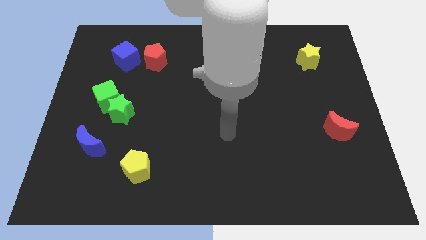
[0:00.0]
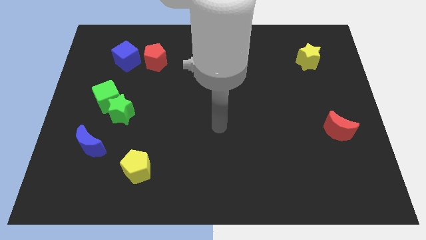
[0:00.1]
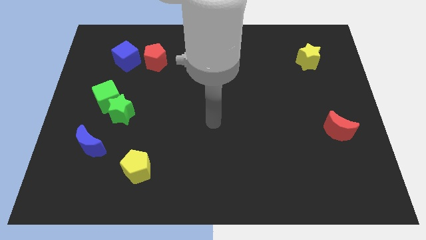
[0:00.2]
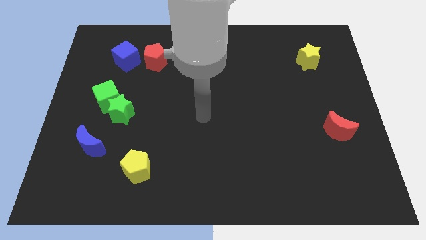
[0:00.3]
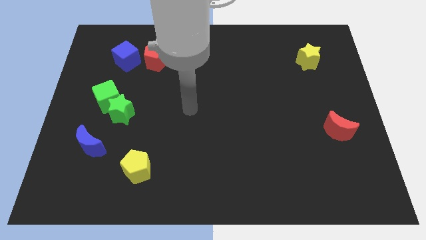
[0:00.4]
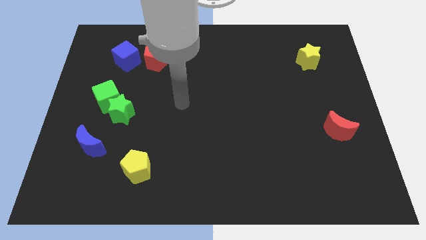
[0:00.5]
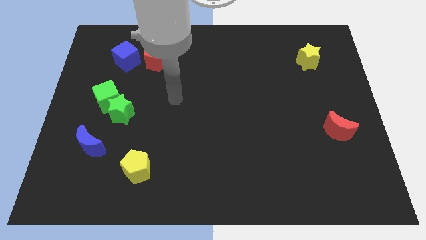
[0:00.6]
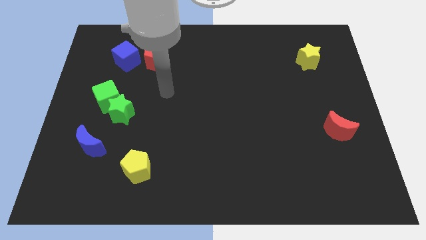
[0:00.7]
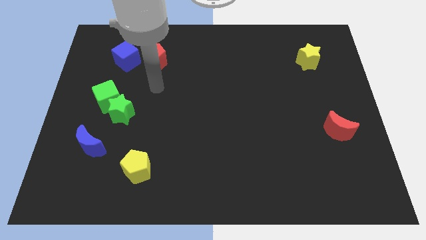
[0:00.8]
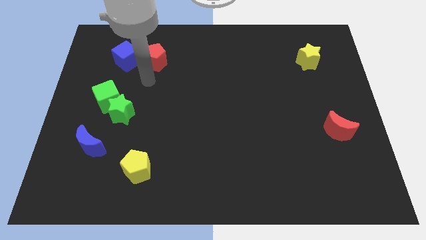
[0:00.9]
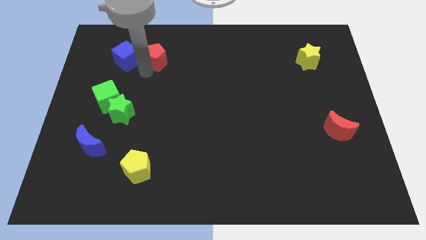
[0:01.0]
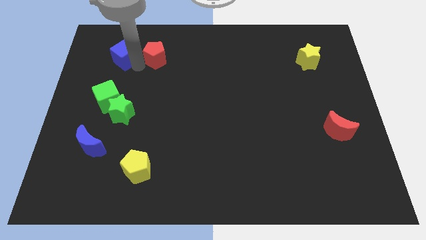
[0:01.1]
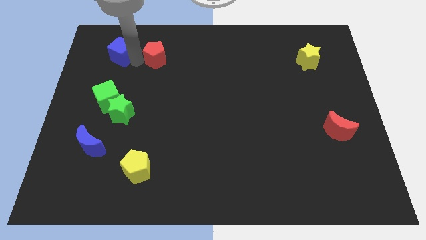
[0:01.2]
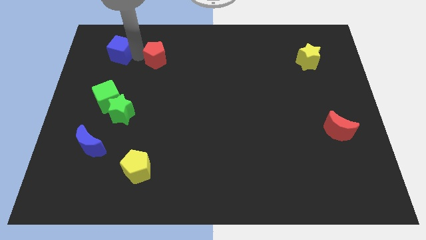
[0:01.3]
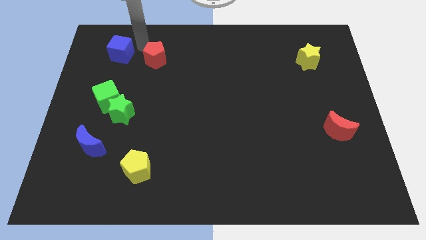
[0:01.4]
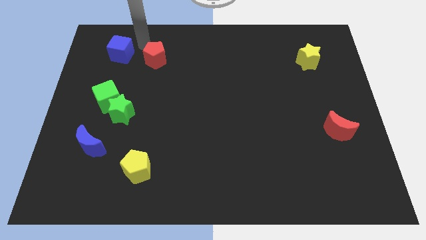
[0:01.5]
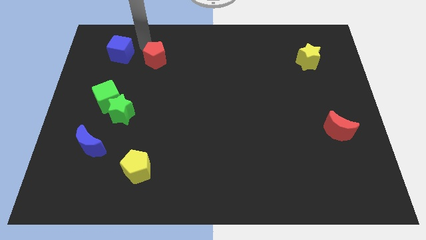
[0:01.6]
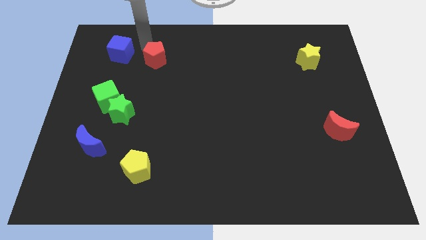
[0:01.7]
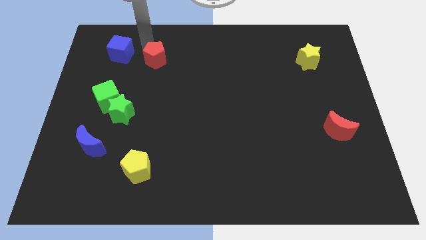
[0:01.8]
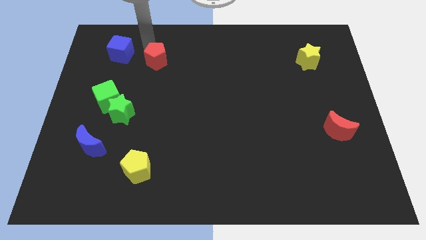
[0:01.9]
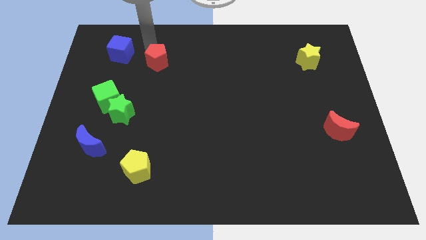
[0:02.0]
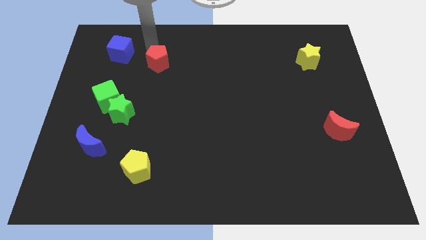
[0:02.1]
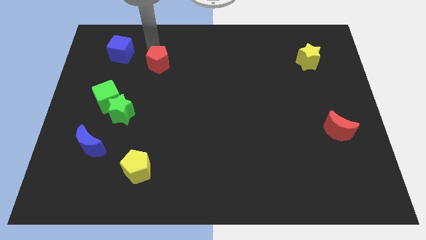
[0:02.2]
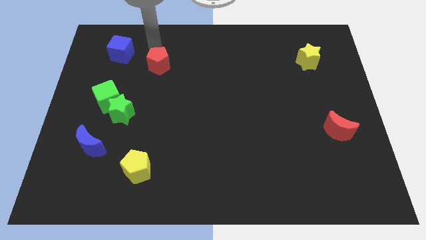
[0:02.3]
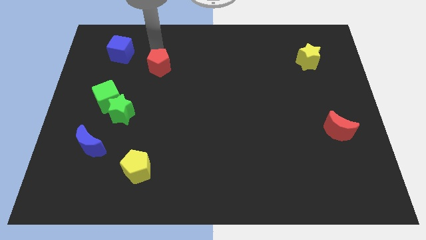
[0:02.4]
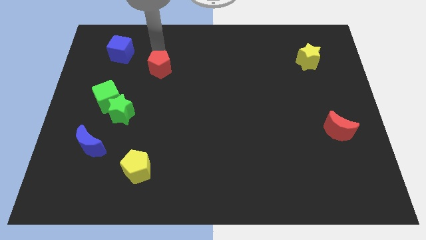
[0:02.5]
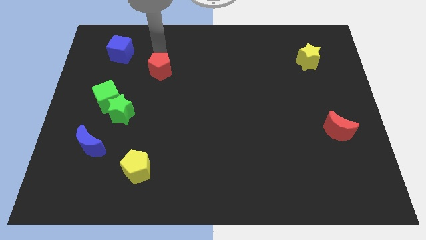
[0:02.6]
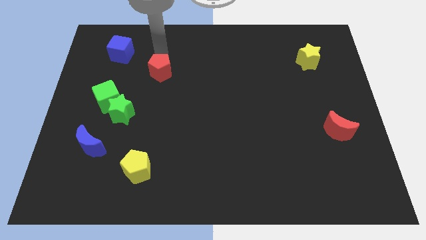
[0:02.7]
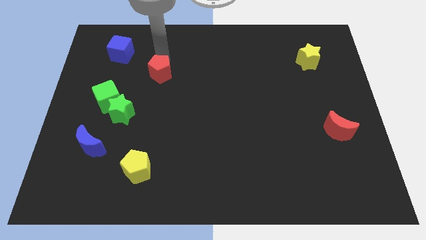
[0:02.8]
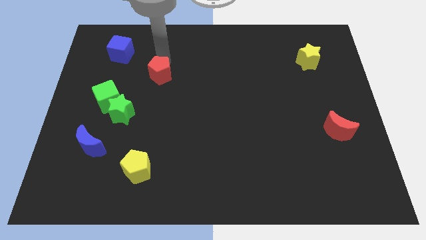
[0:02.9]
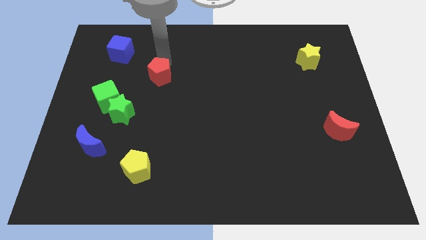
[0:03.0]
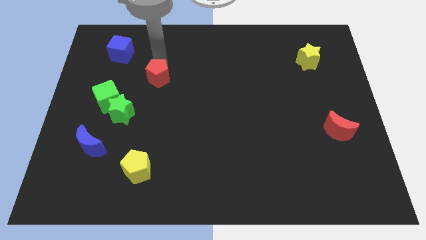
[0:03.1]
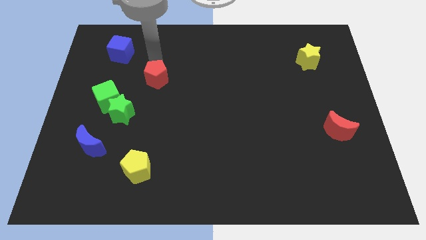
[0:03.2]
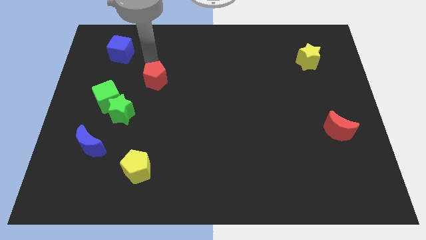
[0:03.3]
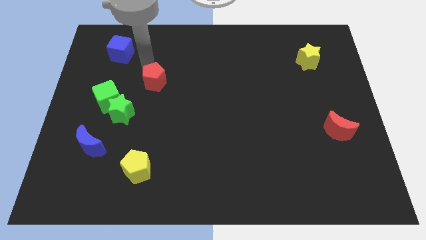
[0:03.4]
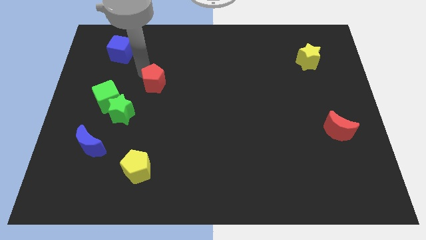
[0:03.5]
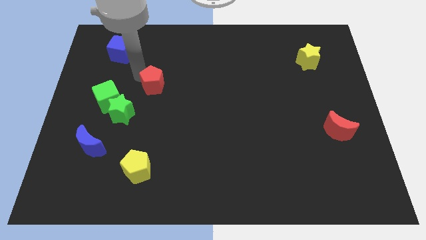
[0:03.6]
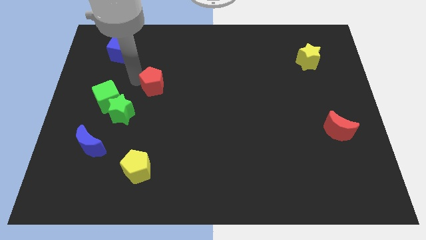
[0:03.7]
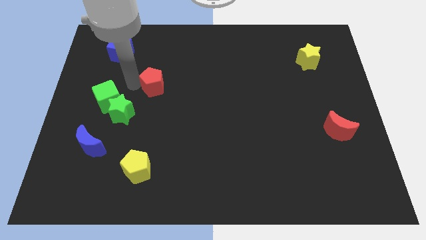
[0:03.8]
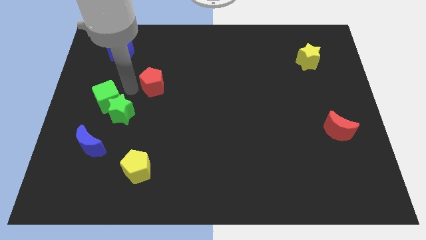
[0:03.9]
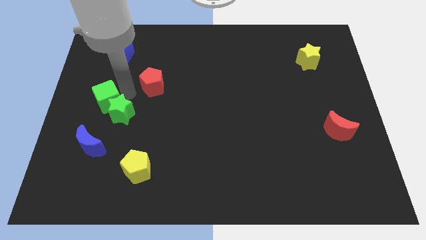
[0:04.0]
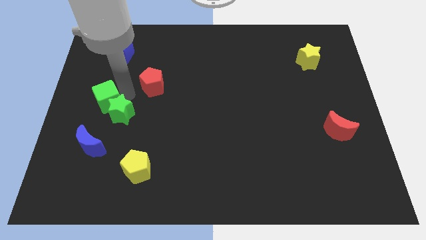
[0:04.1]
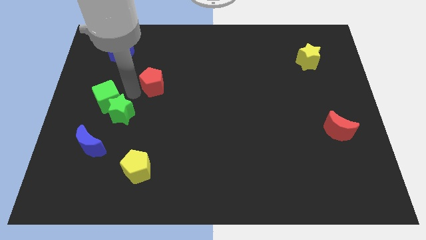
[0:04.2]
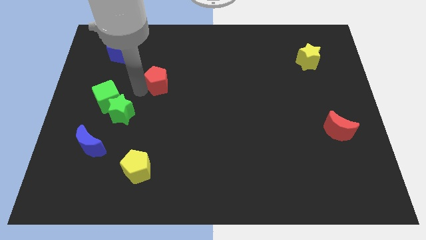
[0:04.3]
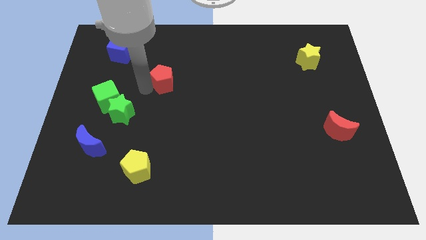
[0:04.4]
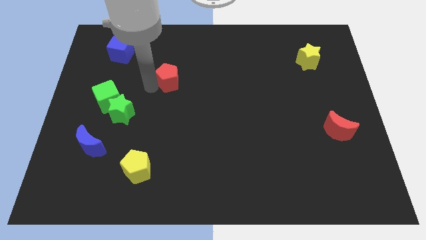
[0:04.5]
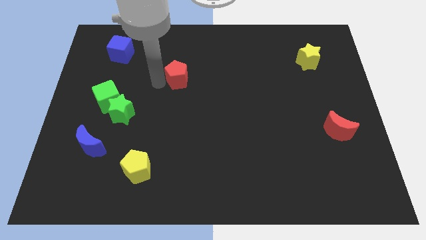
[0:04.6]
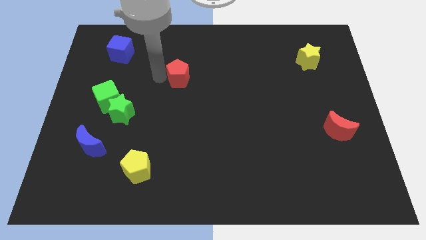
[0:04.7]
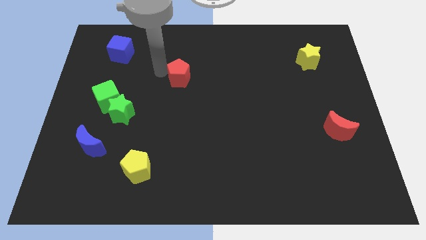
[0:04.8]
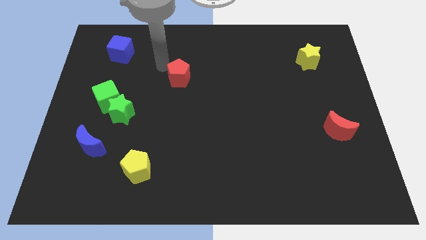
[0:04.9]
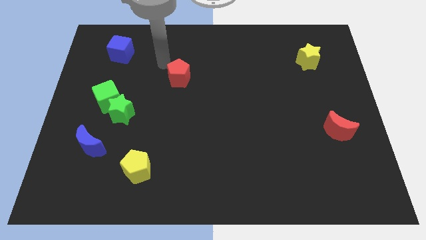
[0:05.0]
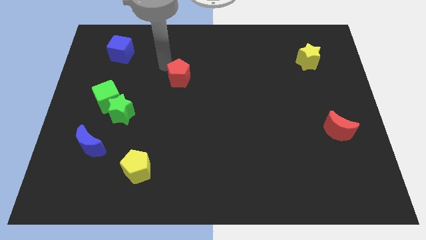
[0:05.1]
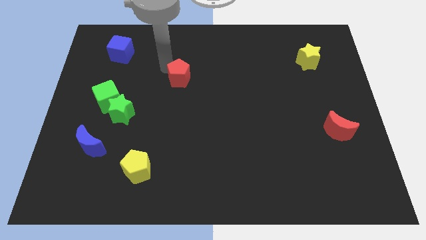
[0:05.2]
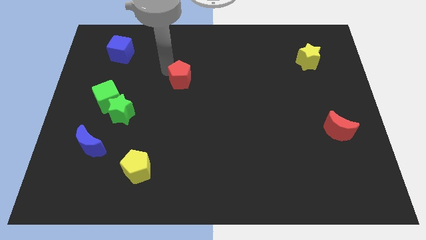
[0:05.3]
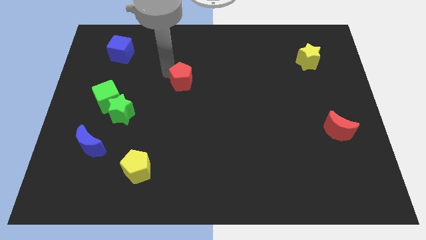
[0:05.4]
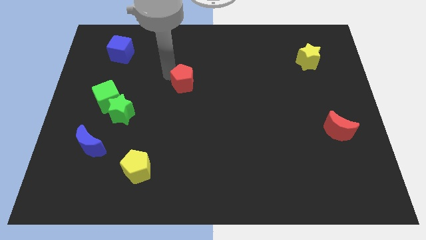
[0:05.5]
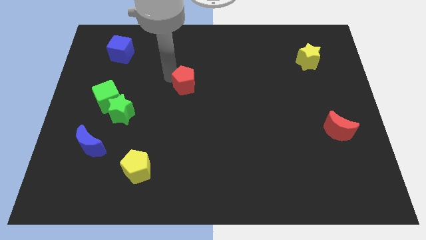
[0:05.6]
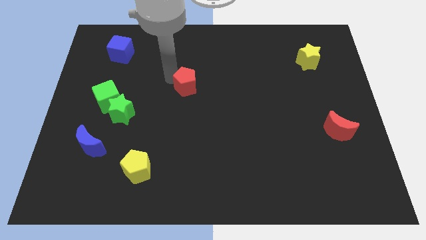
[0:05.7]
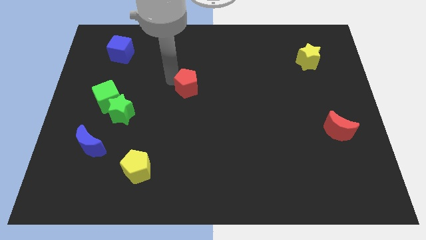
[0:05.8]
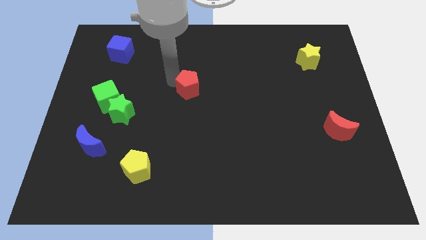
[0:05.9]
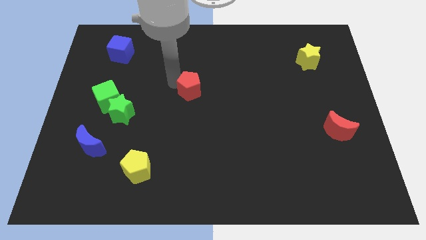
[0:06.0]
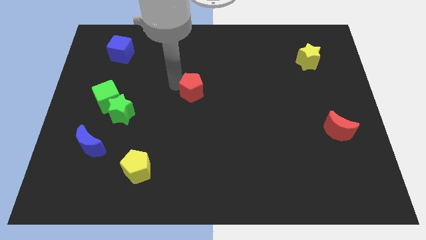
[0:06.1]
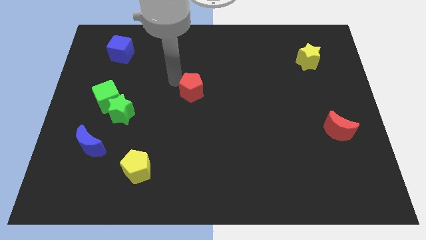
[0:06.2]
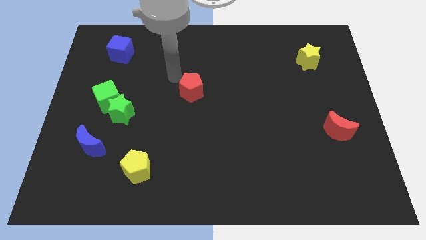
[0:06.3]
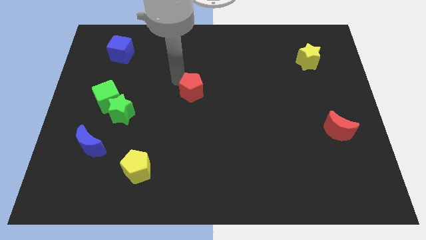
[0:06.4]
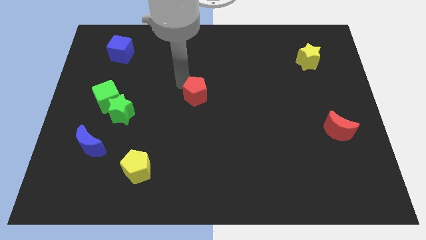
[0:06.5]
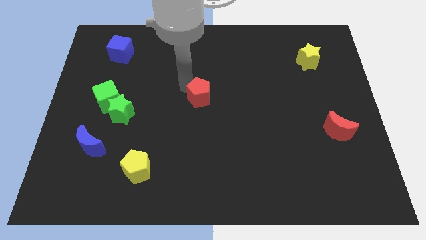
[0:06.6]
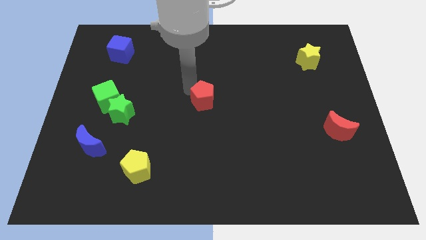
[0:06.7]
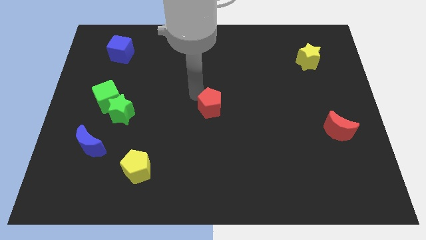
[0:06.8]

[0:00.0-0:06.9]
push the red pentagon downwards and right

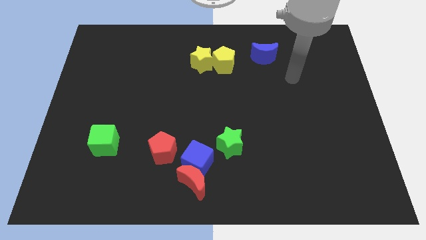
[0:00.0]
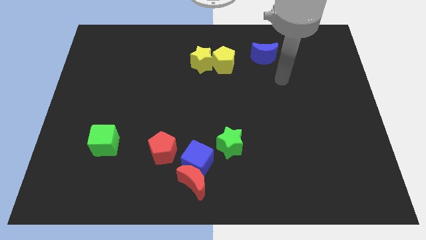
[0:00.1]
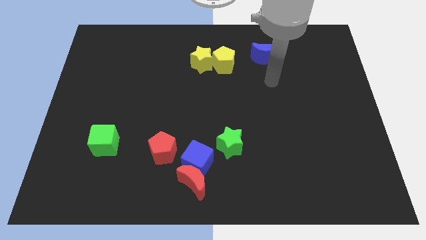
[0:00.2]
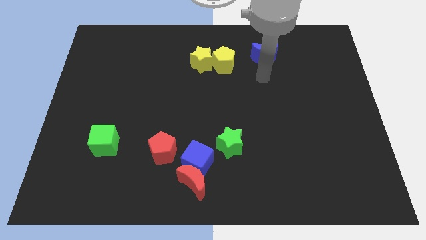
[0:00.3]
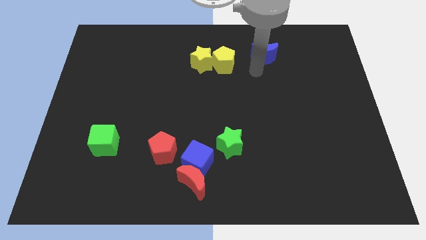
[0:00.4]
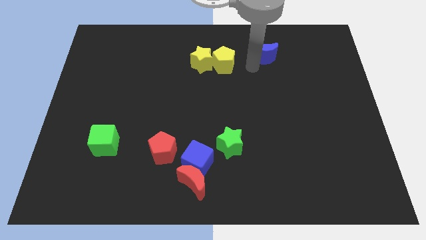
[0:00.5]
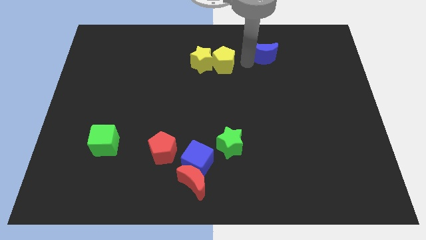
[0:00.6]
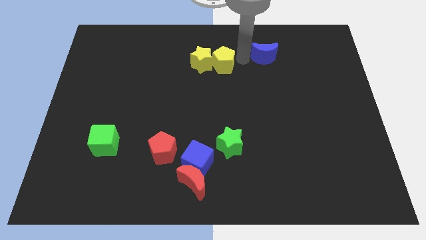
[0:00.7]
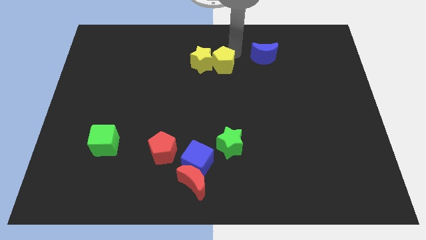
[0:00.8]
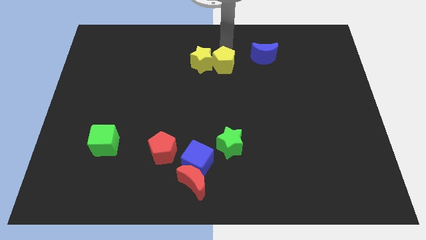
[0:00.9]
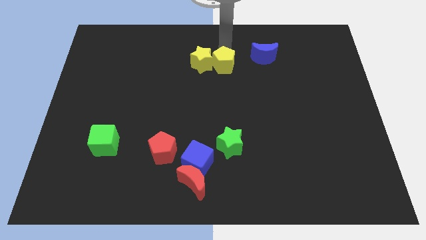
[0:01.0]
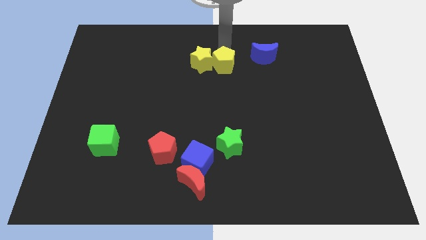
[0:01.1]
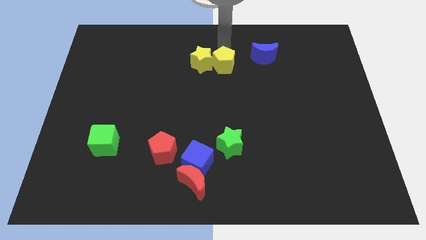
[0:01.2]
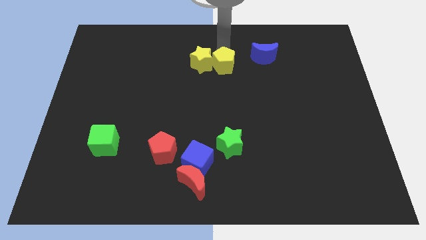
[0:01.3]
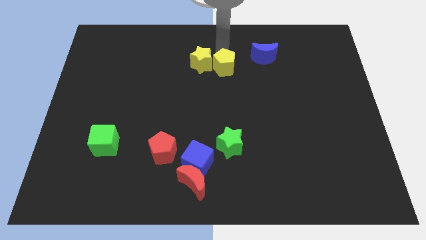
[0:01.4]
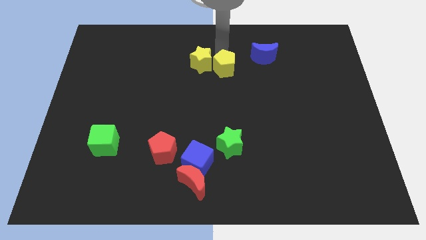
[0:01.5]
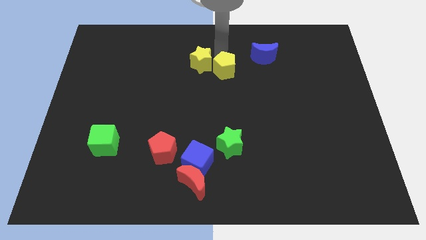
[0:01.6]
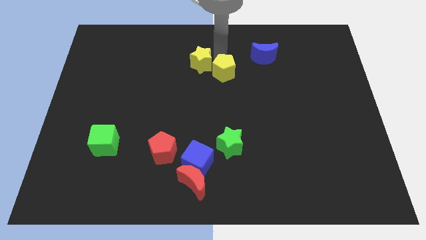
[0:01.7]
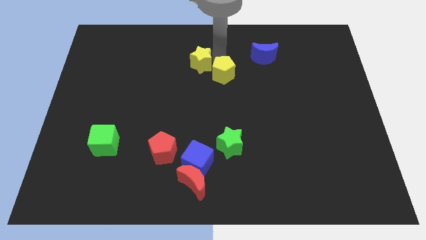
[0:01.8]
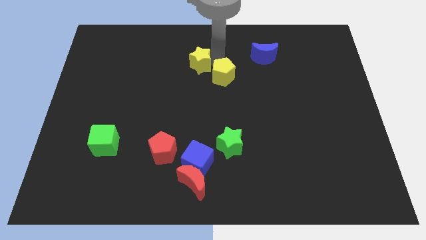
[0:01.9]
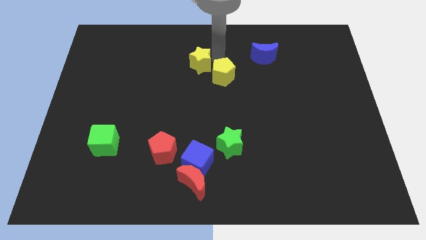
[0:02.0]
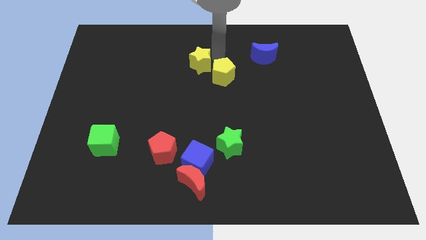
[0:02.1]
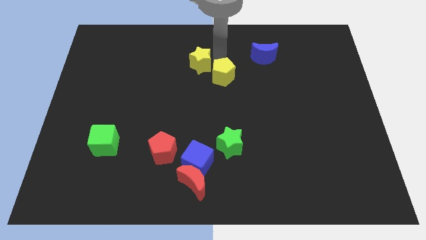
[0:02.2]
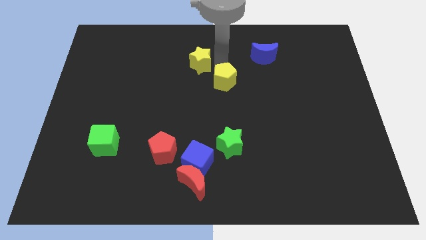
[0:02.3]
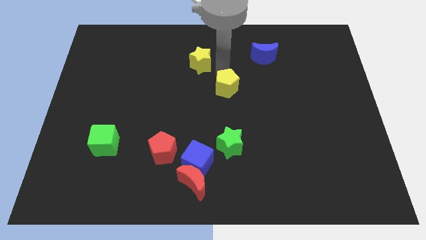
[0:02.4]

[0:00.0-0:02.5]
slide the yellow pentagon downwards slightly
